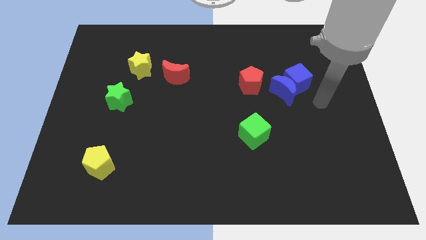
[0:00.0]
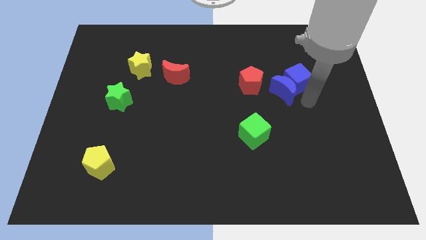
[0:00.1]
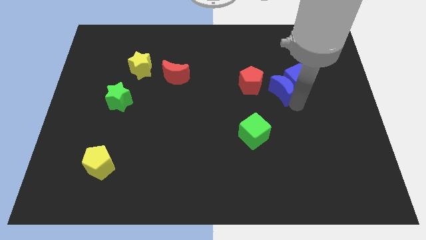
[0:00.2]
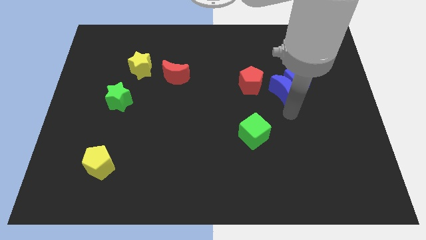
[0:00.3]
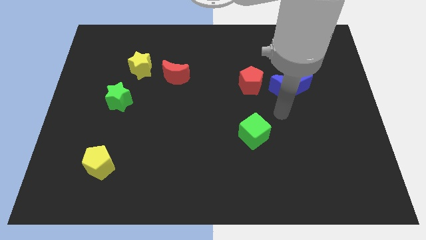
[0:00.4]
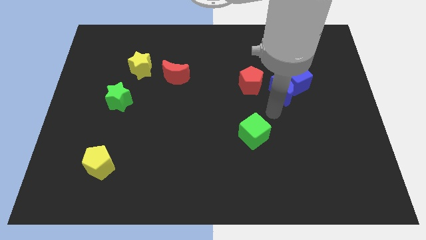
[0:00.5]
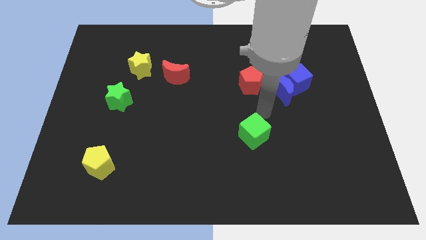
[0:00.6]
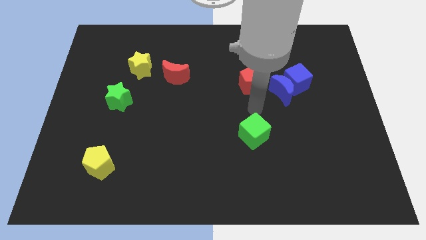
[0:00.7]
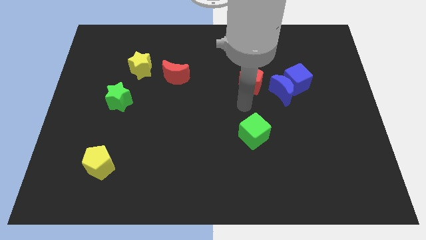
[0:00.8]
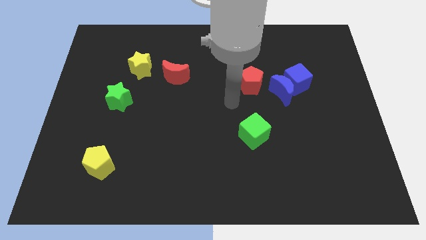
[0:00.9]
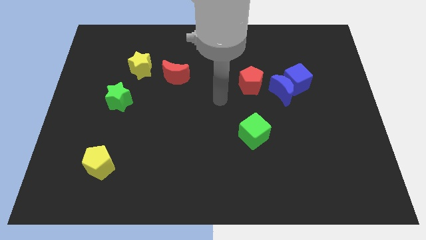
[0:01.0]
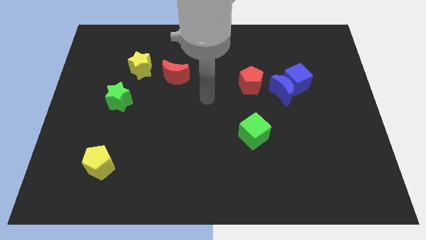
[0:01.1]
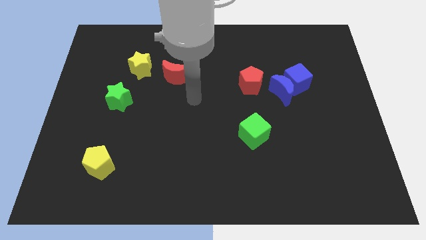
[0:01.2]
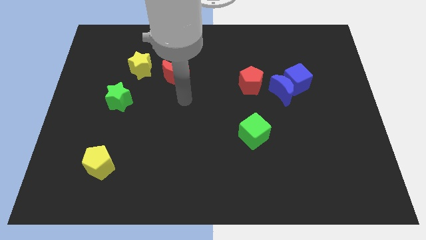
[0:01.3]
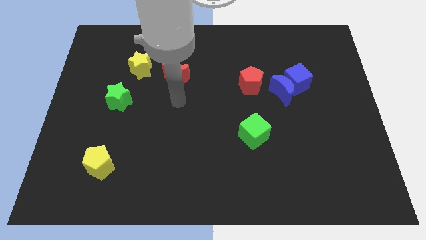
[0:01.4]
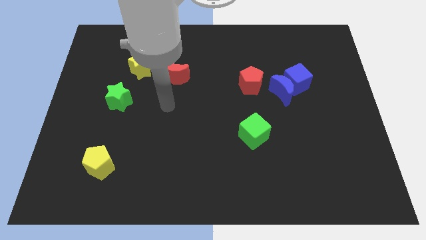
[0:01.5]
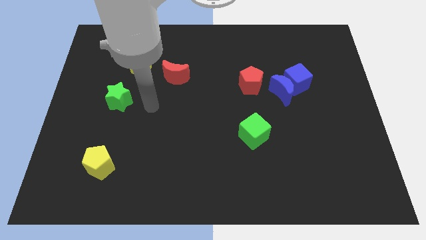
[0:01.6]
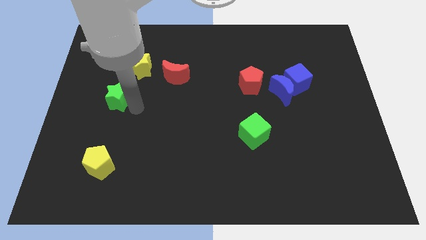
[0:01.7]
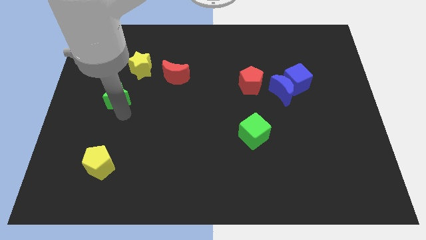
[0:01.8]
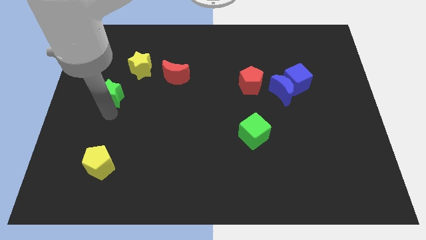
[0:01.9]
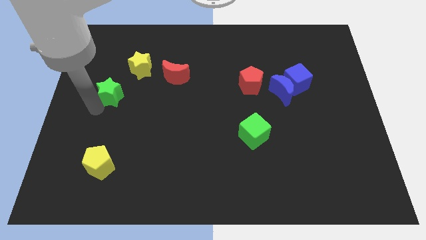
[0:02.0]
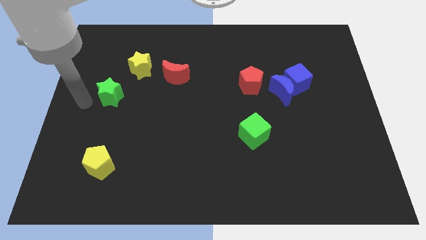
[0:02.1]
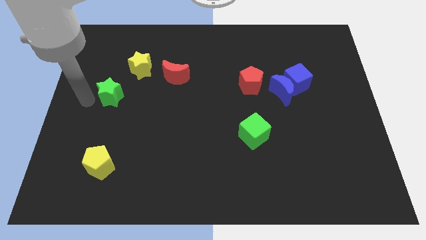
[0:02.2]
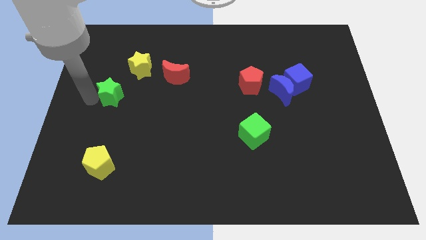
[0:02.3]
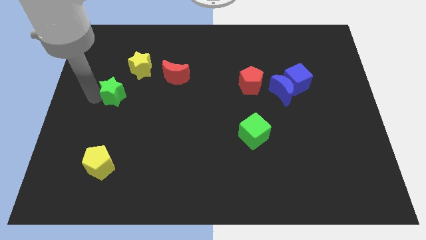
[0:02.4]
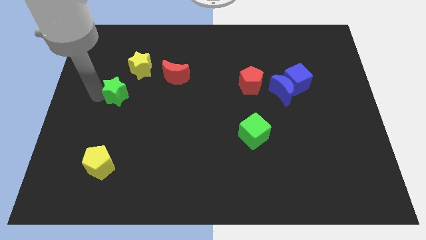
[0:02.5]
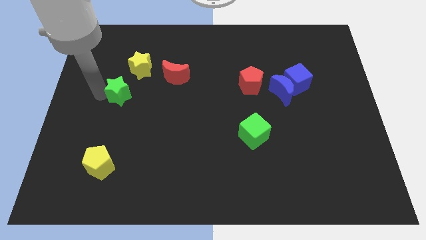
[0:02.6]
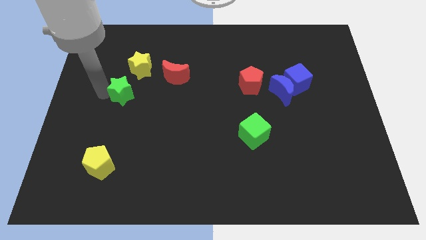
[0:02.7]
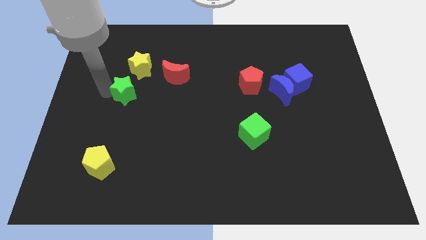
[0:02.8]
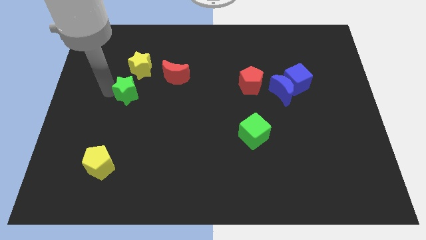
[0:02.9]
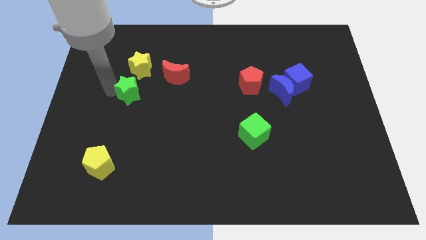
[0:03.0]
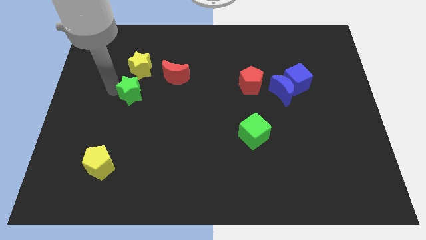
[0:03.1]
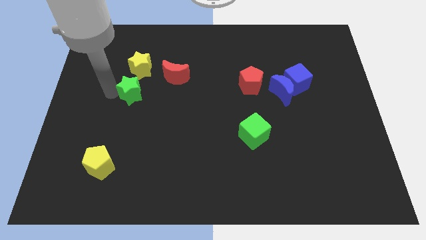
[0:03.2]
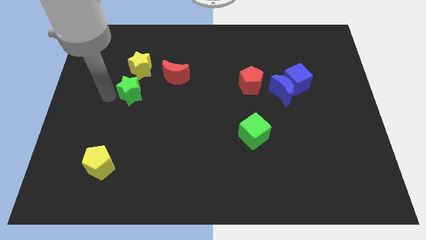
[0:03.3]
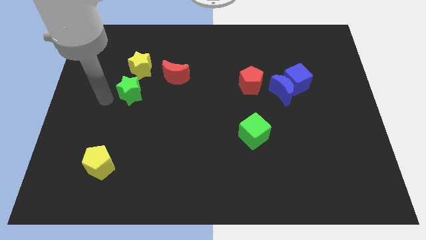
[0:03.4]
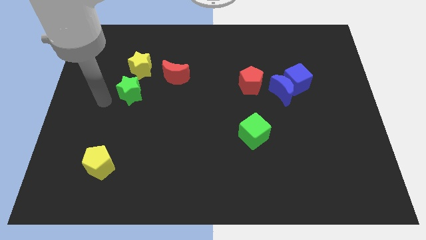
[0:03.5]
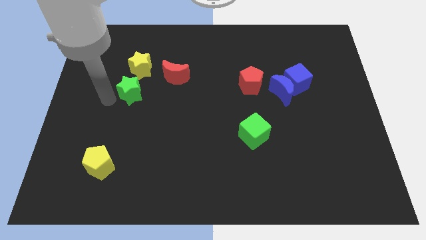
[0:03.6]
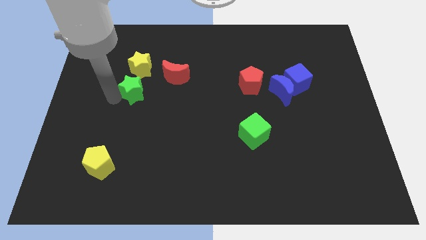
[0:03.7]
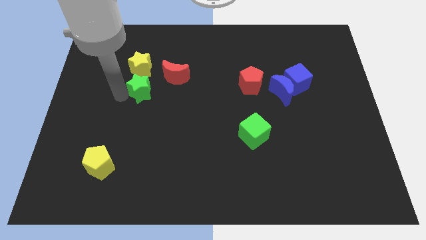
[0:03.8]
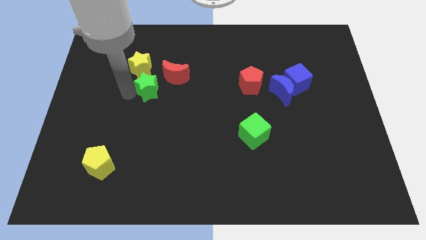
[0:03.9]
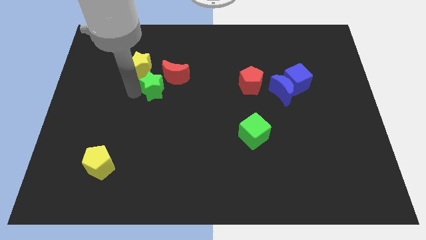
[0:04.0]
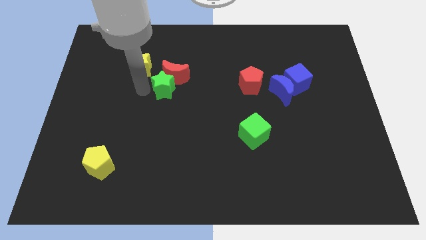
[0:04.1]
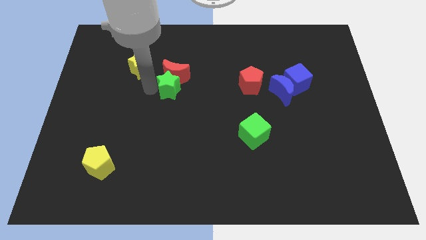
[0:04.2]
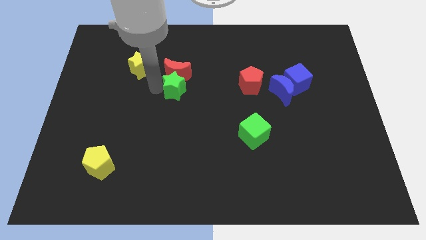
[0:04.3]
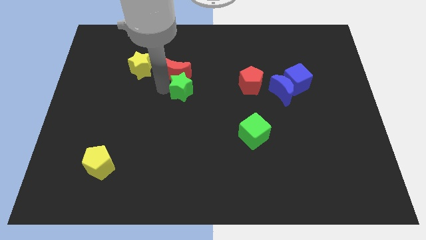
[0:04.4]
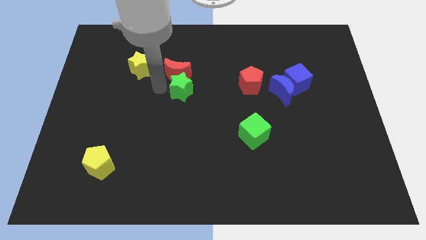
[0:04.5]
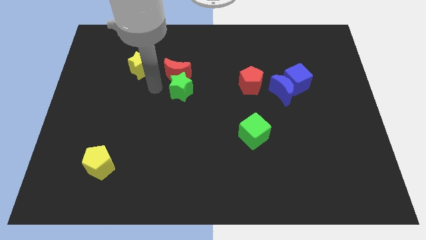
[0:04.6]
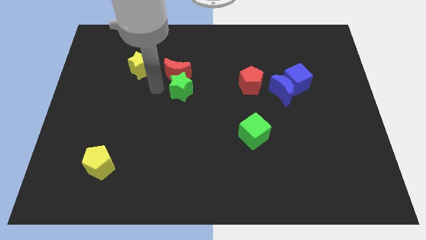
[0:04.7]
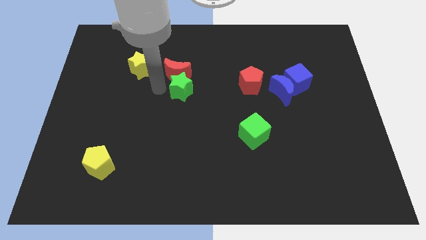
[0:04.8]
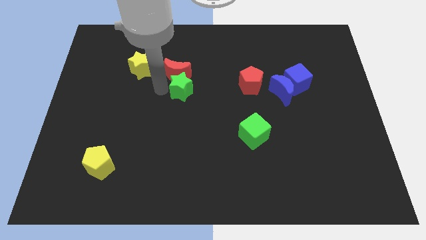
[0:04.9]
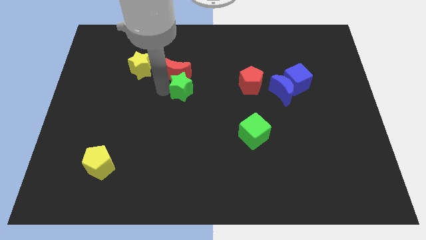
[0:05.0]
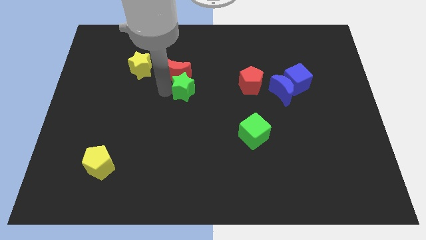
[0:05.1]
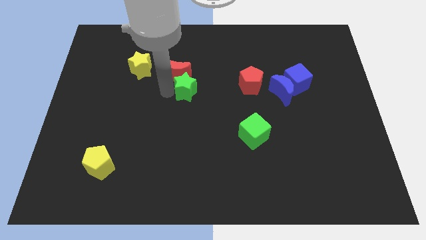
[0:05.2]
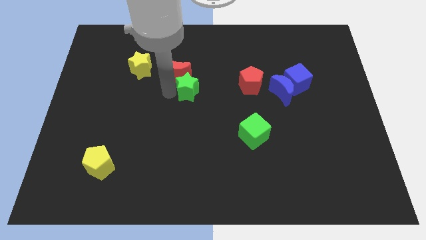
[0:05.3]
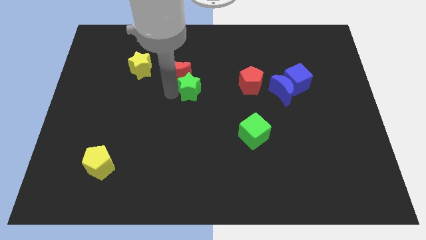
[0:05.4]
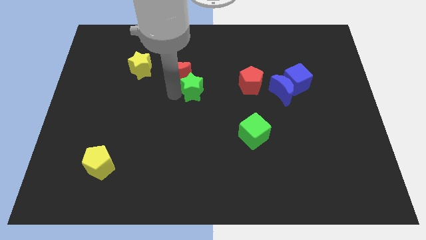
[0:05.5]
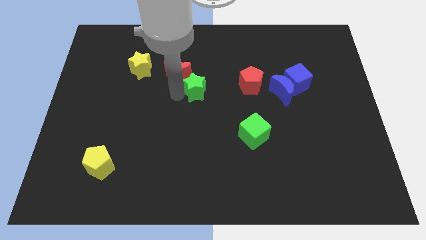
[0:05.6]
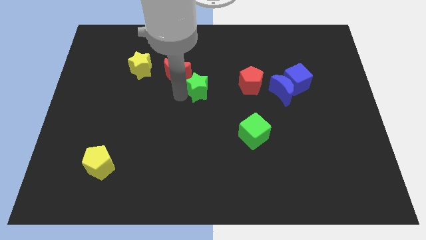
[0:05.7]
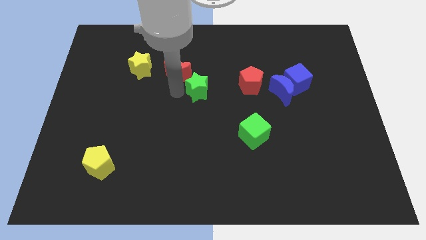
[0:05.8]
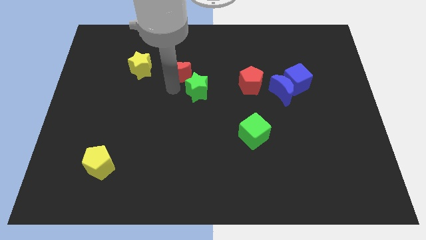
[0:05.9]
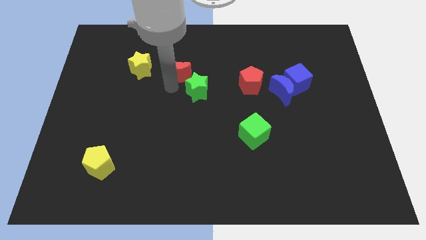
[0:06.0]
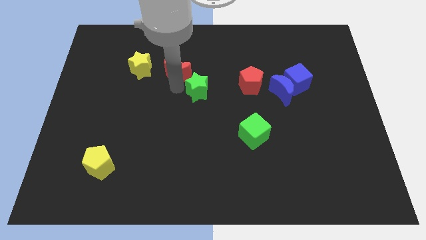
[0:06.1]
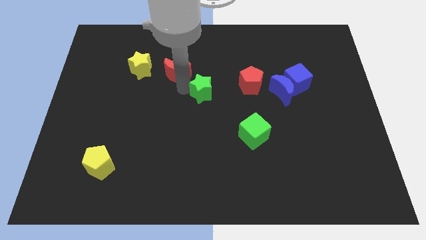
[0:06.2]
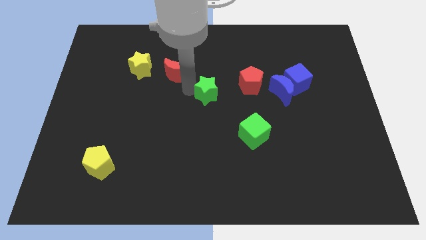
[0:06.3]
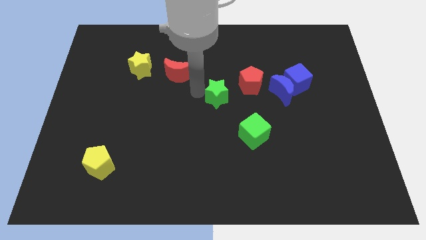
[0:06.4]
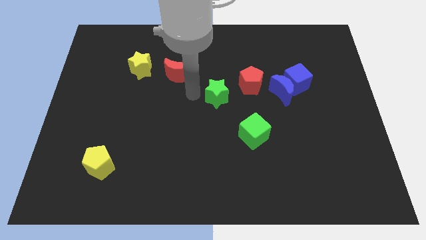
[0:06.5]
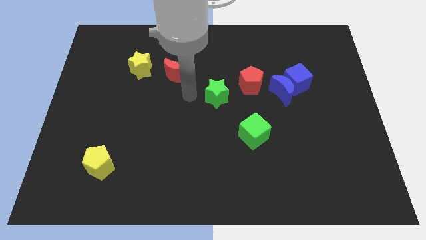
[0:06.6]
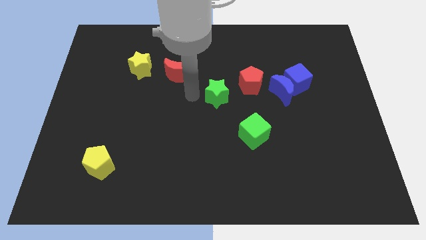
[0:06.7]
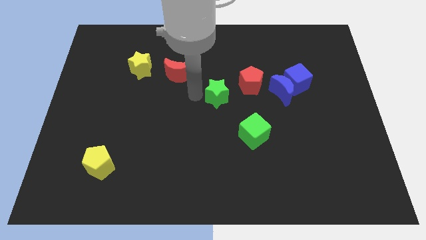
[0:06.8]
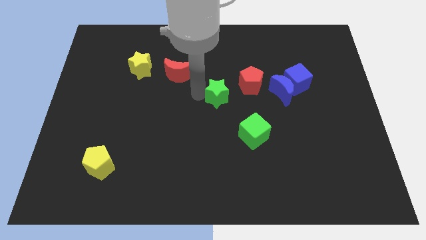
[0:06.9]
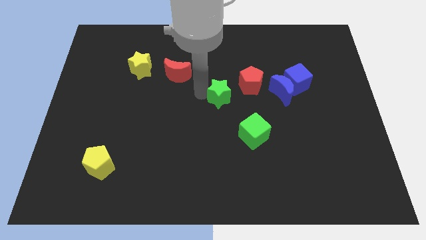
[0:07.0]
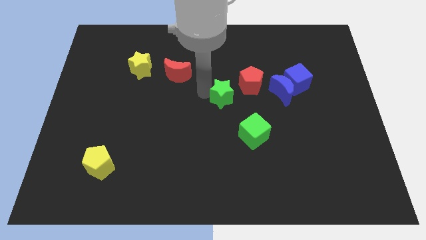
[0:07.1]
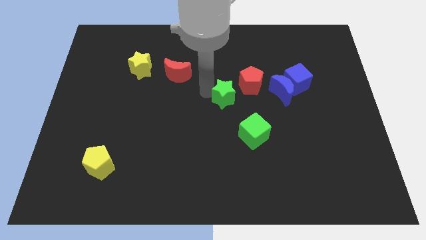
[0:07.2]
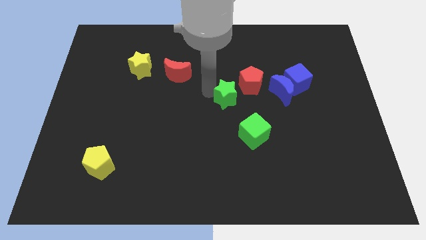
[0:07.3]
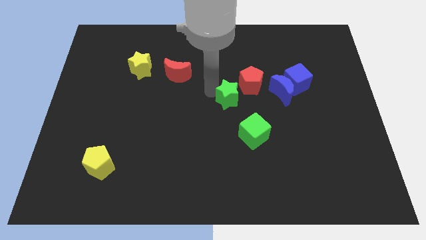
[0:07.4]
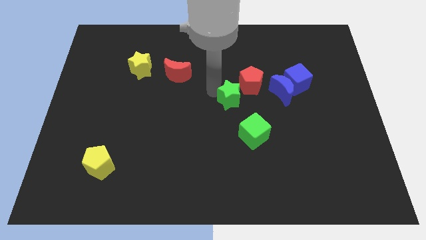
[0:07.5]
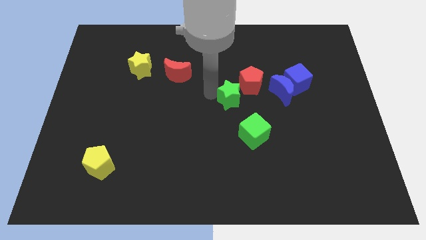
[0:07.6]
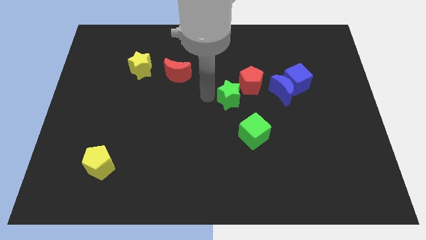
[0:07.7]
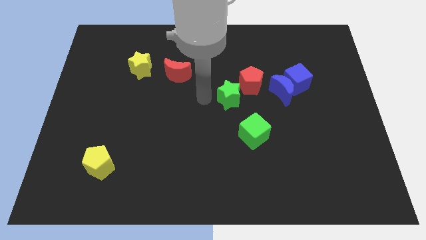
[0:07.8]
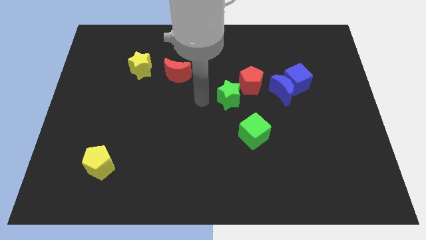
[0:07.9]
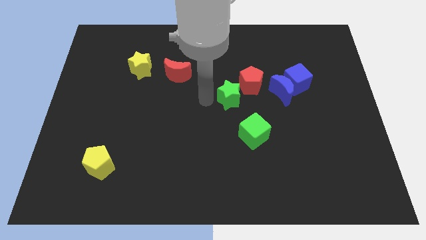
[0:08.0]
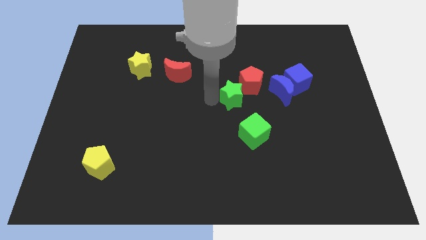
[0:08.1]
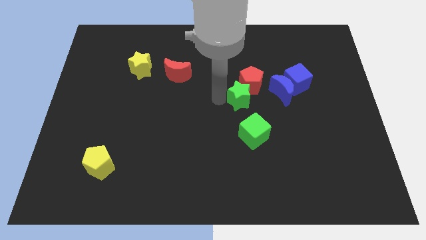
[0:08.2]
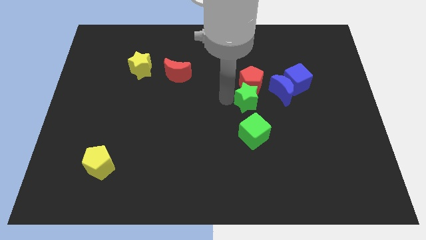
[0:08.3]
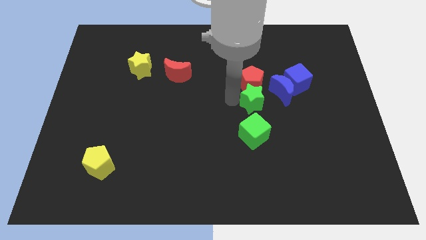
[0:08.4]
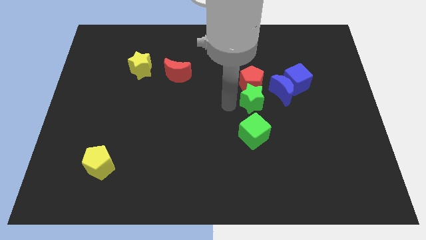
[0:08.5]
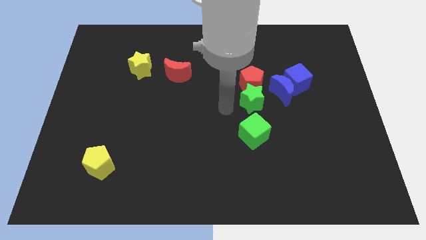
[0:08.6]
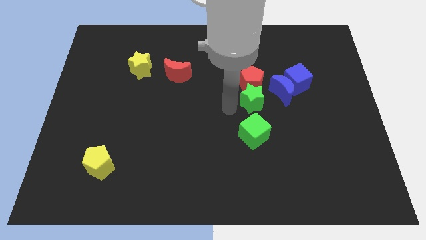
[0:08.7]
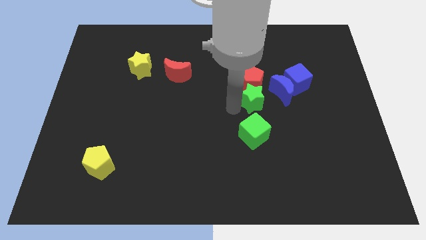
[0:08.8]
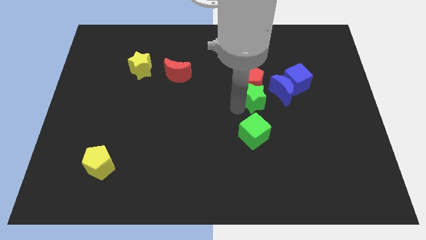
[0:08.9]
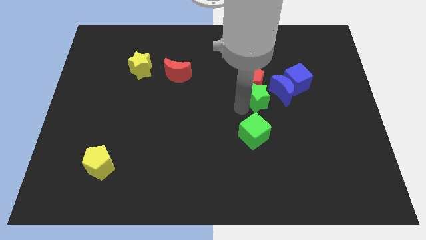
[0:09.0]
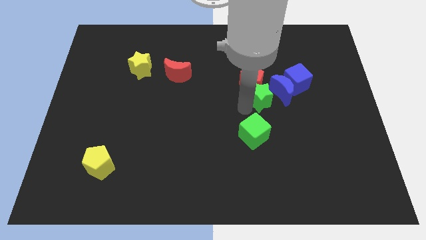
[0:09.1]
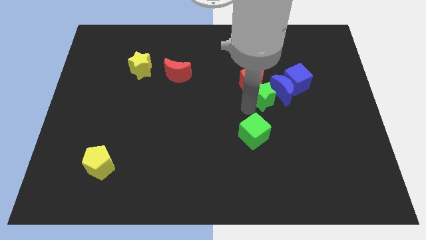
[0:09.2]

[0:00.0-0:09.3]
slide the green star towards the blue moon
